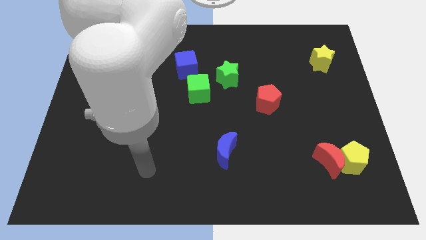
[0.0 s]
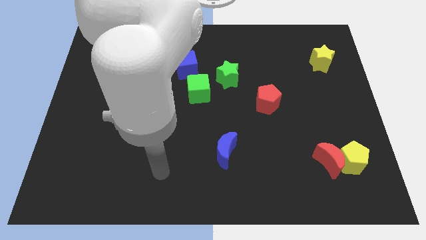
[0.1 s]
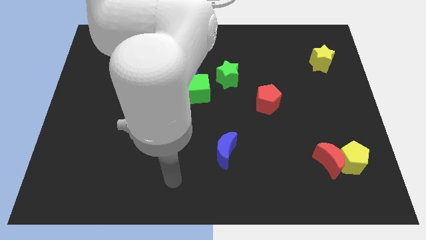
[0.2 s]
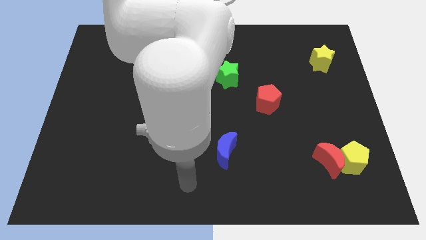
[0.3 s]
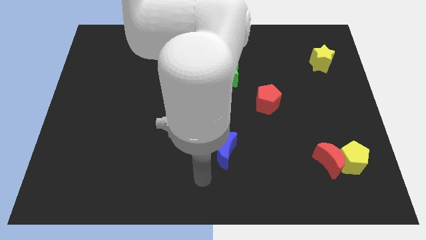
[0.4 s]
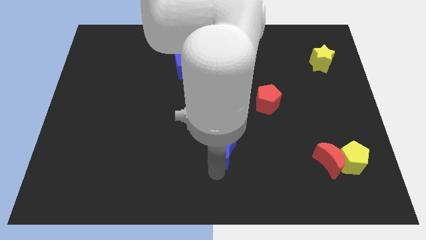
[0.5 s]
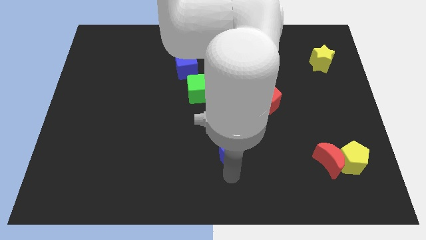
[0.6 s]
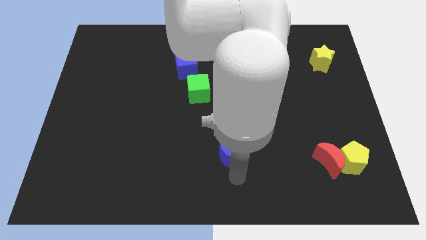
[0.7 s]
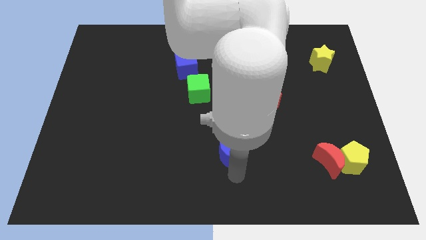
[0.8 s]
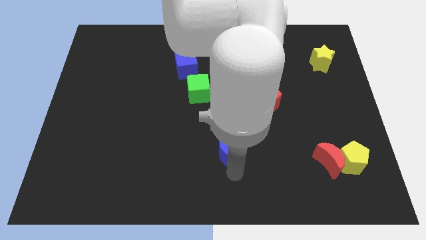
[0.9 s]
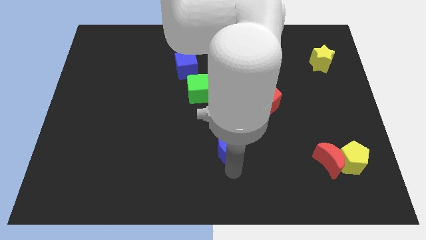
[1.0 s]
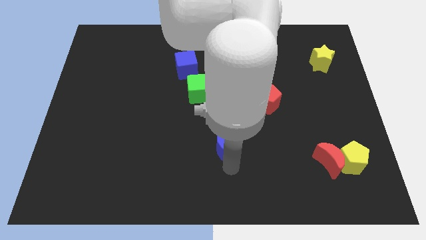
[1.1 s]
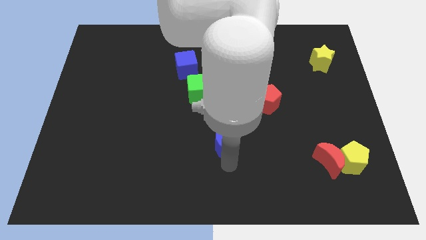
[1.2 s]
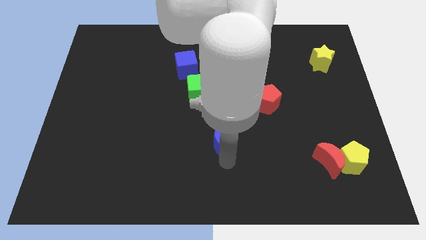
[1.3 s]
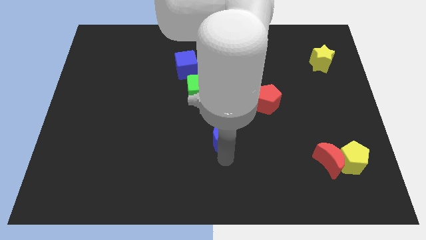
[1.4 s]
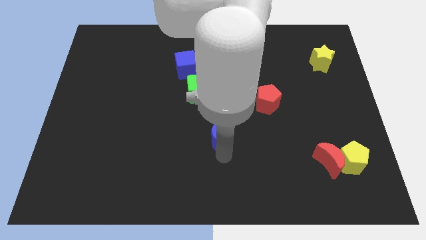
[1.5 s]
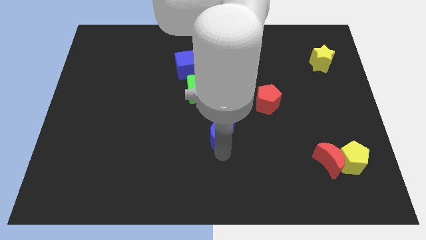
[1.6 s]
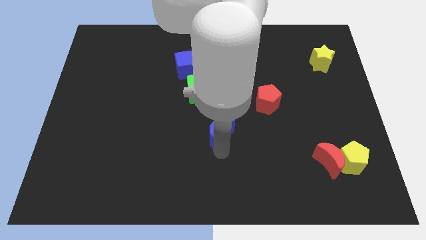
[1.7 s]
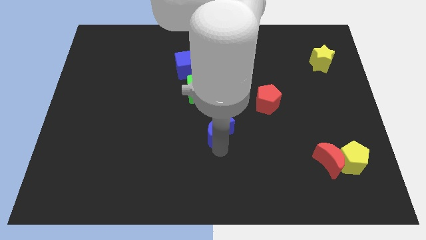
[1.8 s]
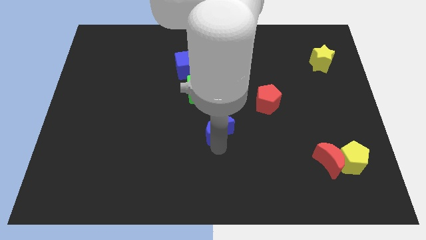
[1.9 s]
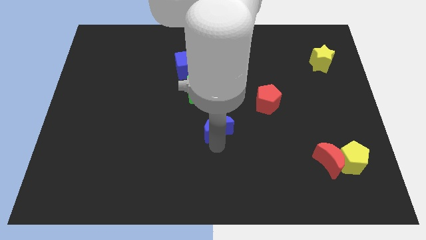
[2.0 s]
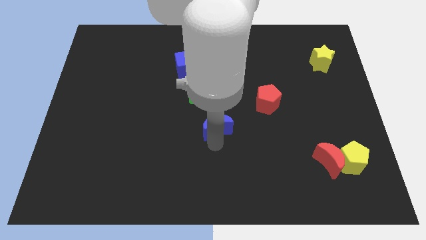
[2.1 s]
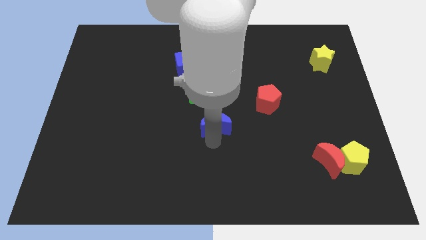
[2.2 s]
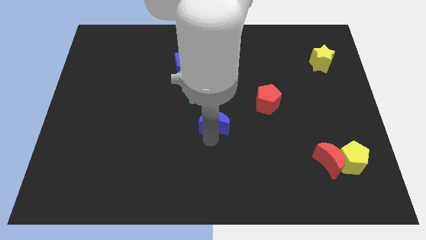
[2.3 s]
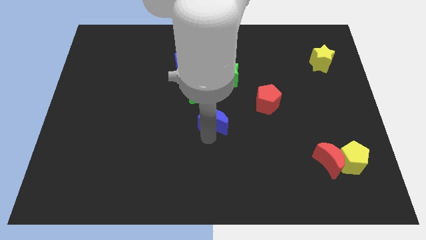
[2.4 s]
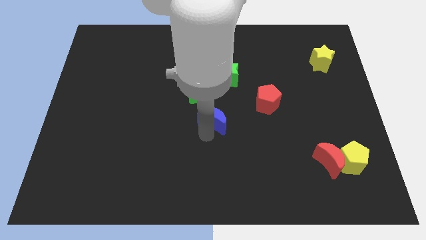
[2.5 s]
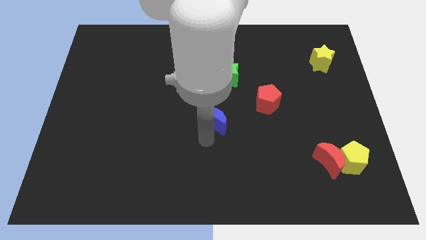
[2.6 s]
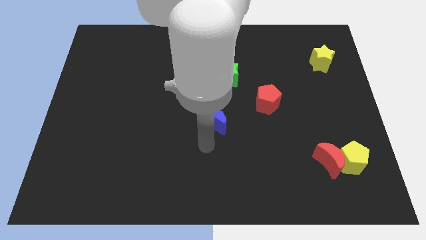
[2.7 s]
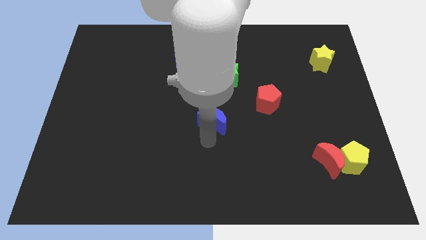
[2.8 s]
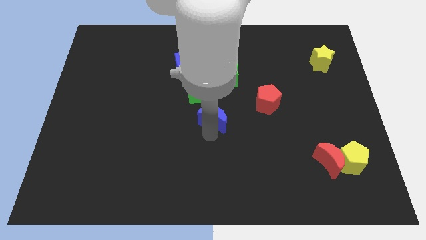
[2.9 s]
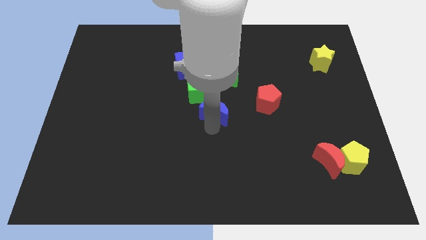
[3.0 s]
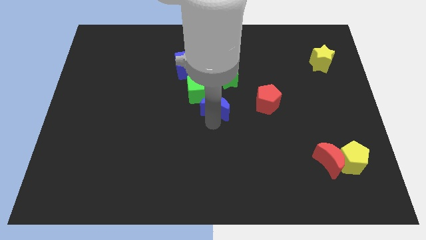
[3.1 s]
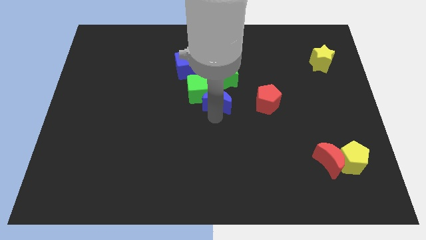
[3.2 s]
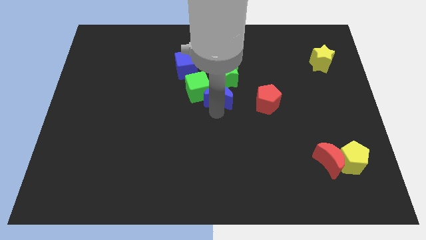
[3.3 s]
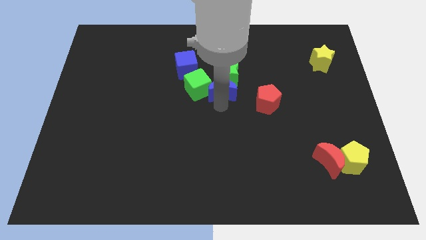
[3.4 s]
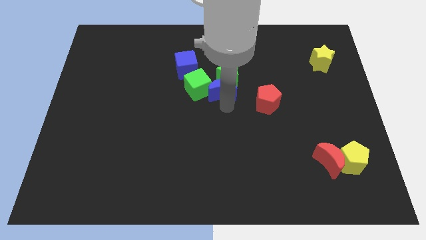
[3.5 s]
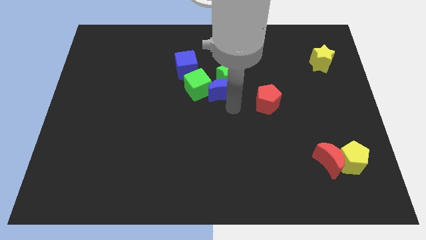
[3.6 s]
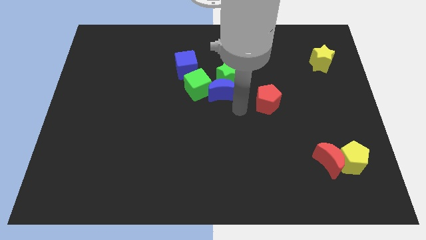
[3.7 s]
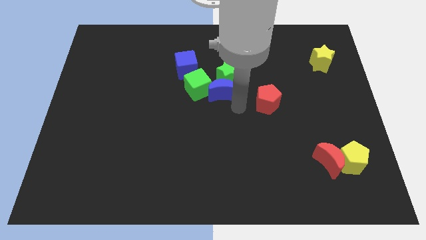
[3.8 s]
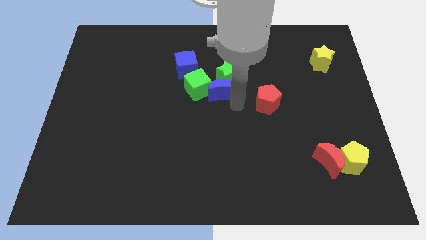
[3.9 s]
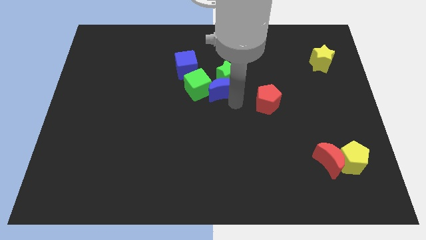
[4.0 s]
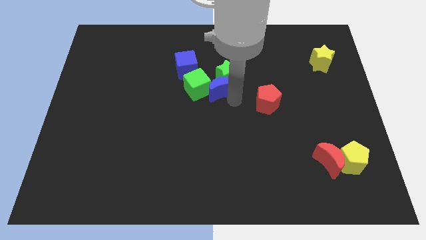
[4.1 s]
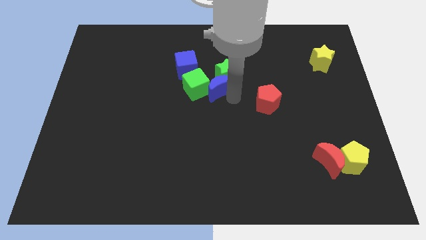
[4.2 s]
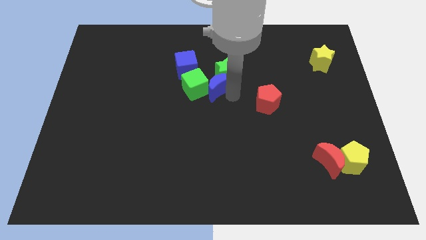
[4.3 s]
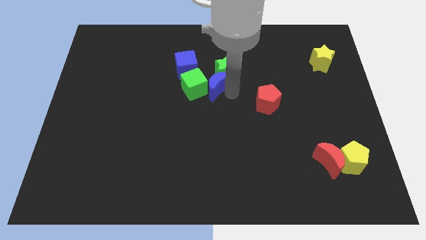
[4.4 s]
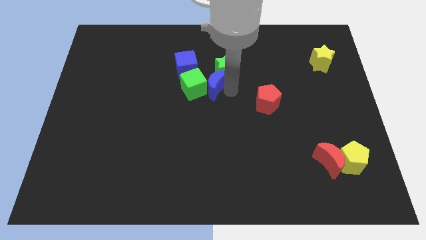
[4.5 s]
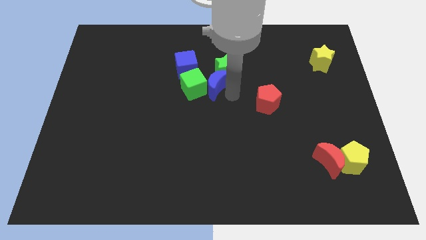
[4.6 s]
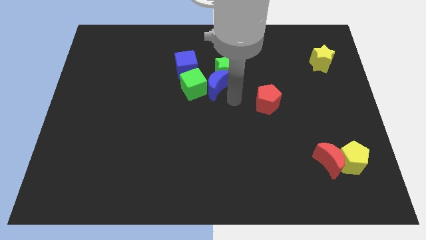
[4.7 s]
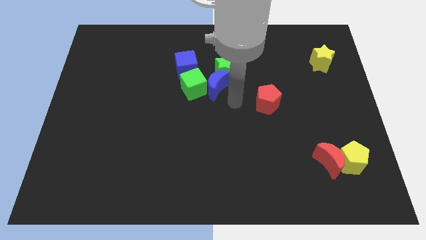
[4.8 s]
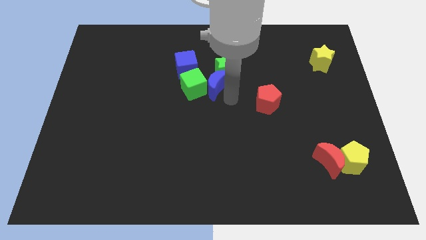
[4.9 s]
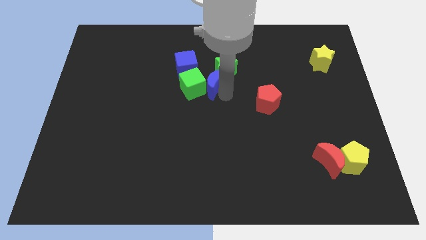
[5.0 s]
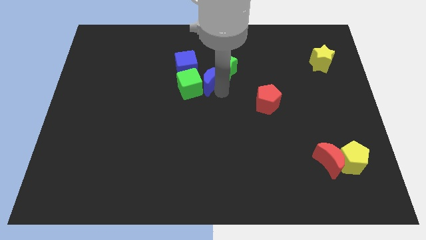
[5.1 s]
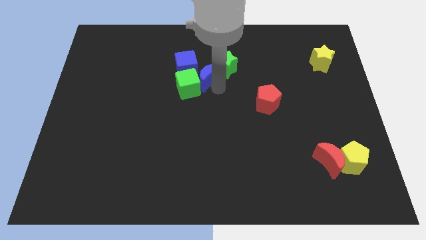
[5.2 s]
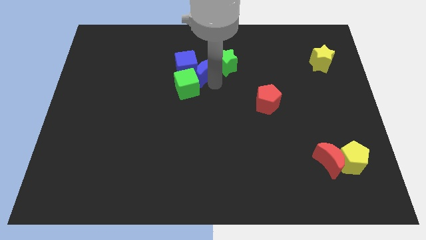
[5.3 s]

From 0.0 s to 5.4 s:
put the blue moon towards the blue cube

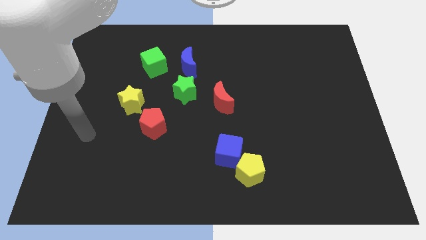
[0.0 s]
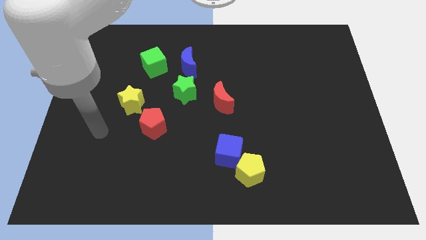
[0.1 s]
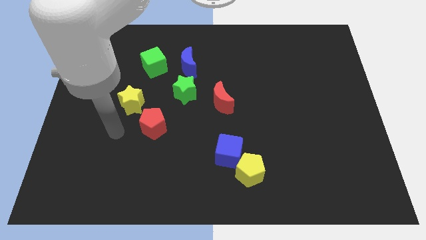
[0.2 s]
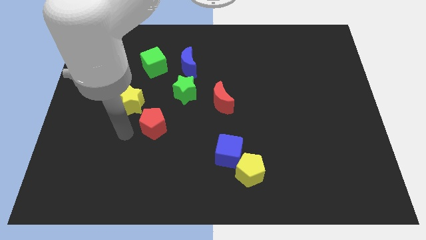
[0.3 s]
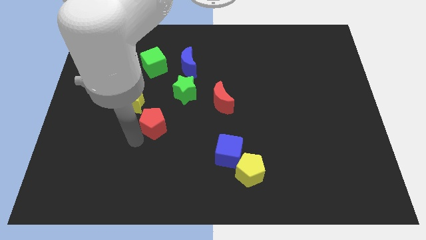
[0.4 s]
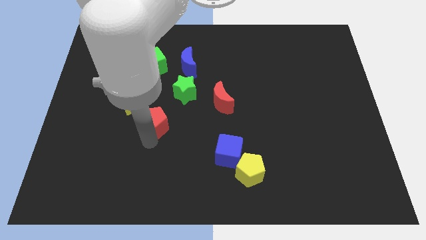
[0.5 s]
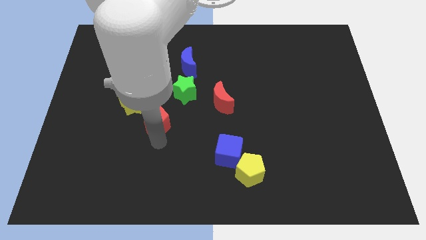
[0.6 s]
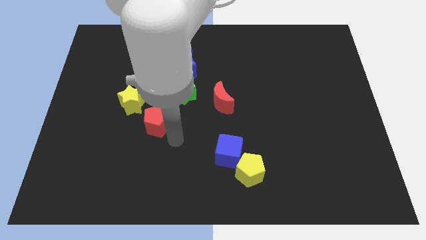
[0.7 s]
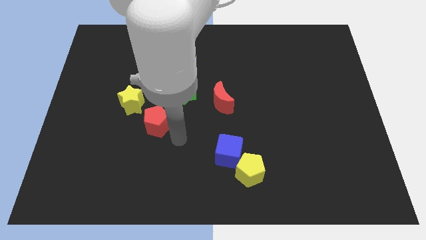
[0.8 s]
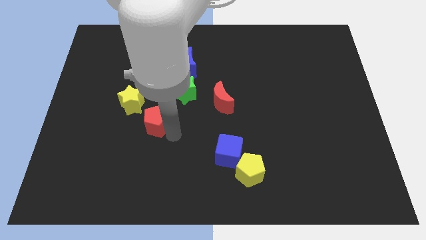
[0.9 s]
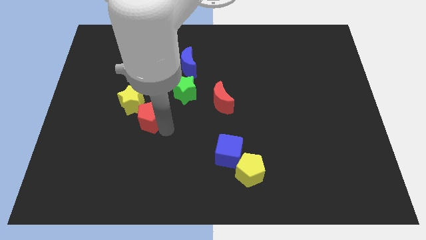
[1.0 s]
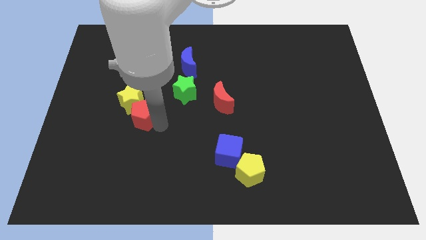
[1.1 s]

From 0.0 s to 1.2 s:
push the red pentagon towards the yellow star

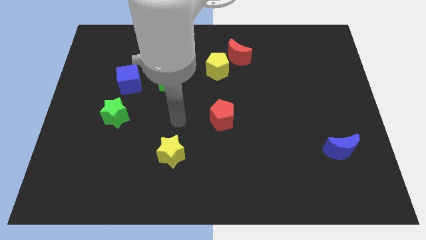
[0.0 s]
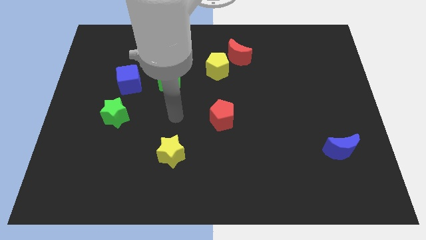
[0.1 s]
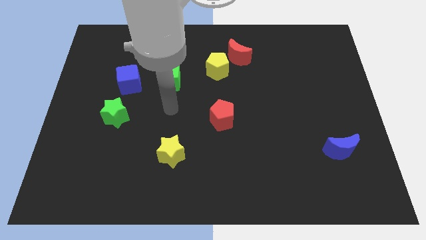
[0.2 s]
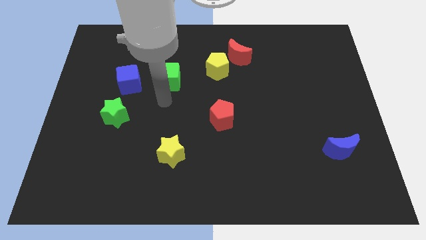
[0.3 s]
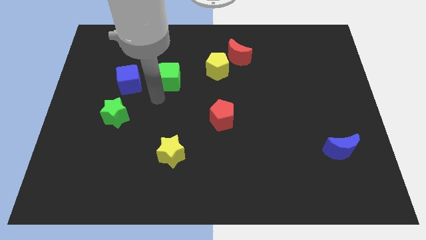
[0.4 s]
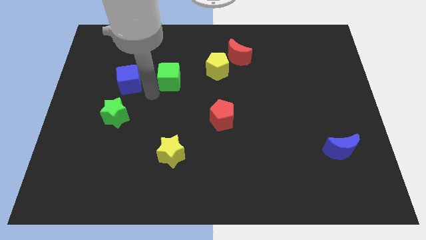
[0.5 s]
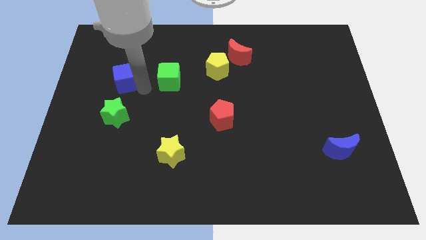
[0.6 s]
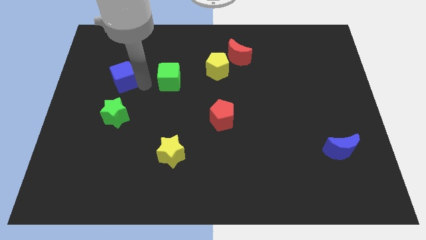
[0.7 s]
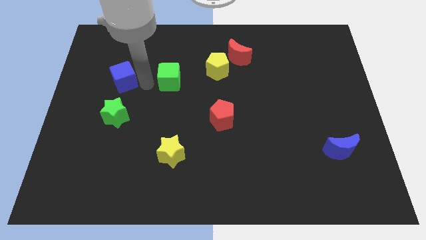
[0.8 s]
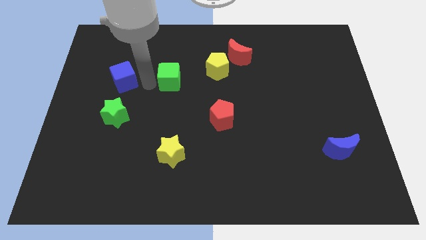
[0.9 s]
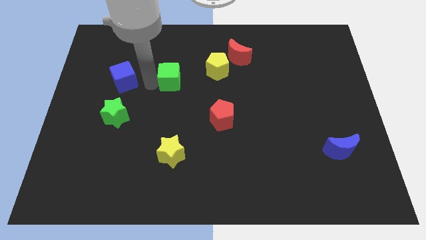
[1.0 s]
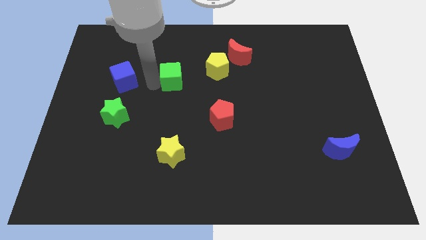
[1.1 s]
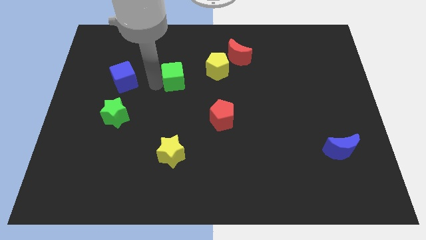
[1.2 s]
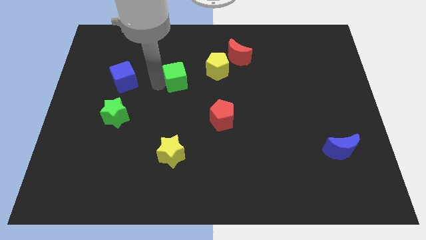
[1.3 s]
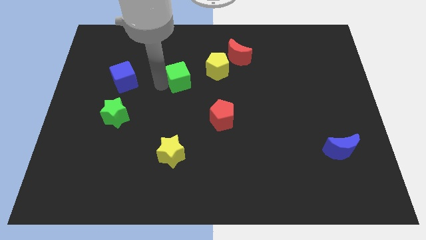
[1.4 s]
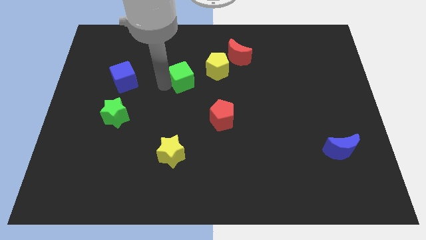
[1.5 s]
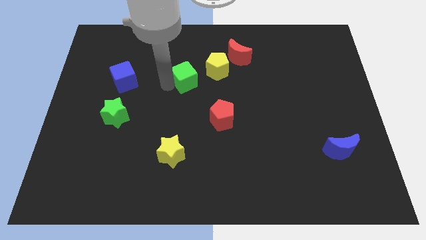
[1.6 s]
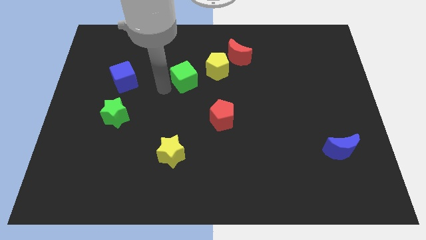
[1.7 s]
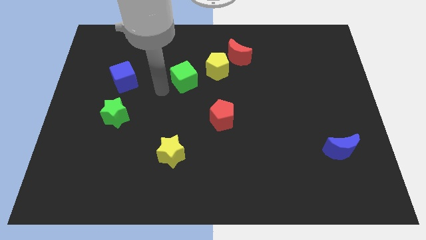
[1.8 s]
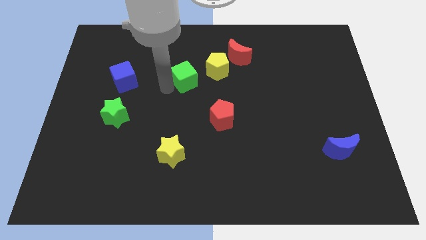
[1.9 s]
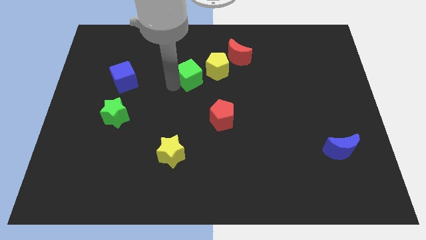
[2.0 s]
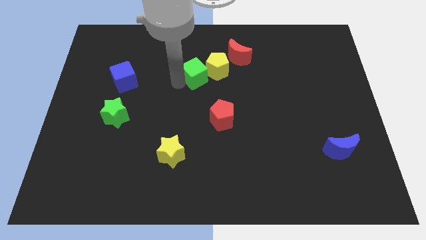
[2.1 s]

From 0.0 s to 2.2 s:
move the green cube close to the yellow pentagon
